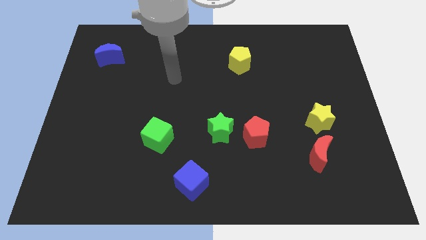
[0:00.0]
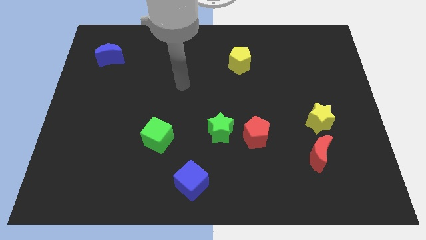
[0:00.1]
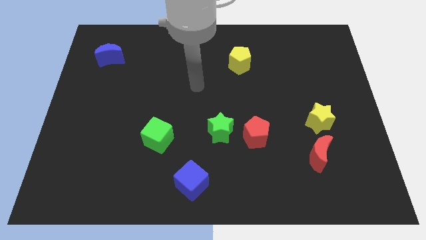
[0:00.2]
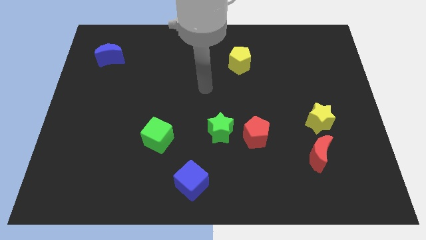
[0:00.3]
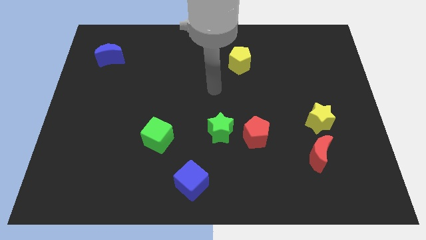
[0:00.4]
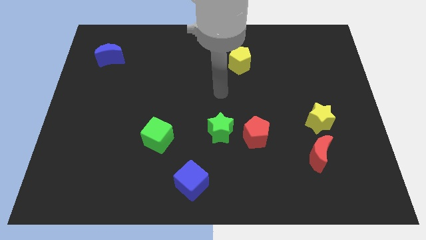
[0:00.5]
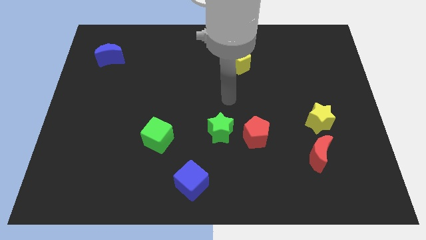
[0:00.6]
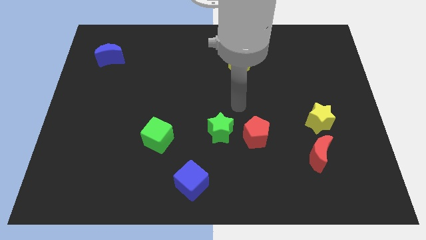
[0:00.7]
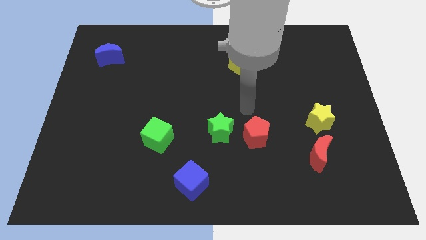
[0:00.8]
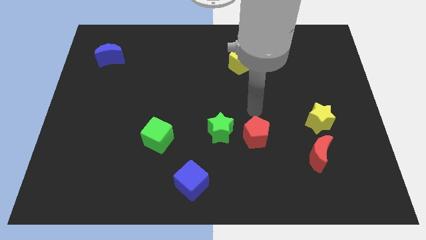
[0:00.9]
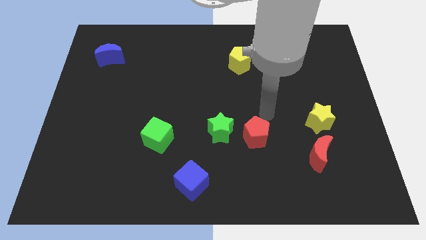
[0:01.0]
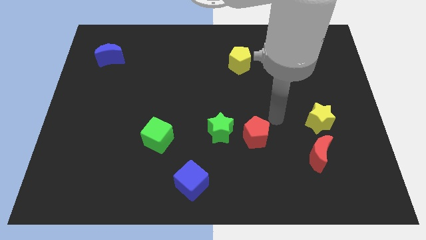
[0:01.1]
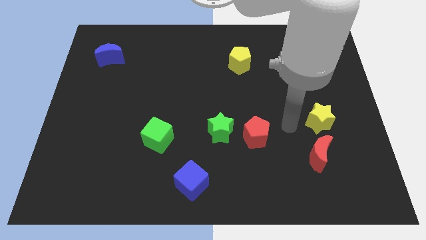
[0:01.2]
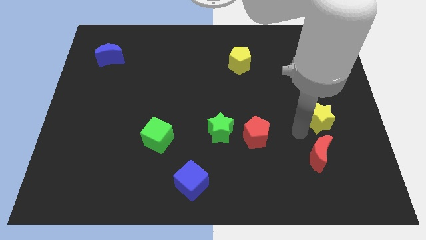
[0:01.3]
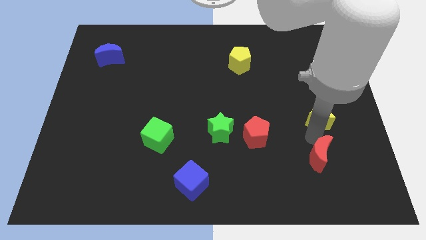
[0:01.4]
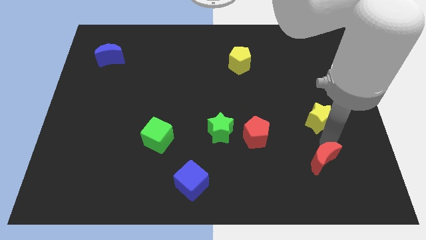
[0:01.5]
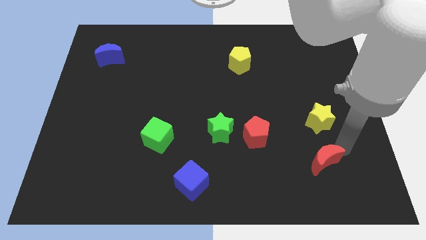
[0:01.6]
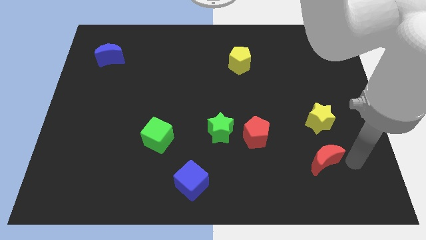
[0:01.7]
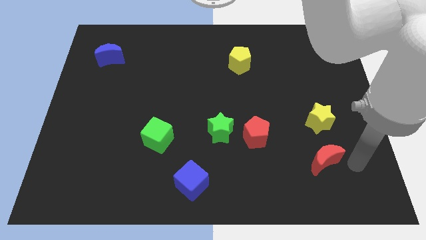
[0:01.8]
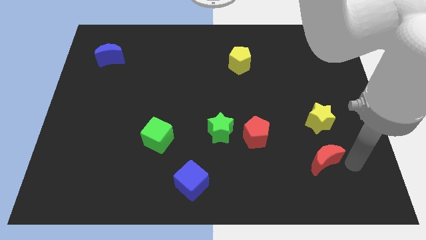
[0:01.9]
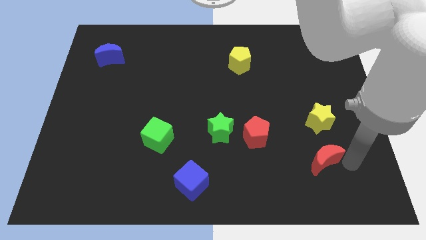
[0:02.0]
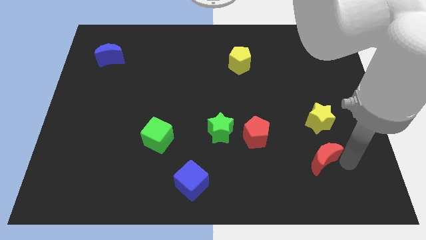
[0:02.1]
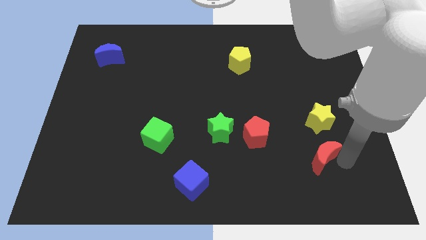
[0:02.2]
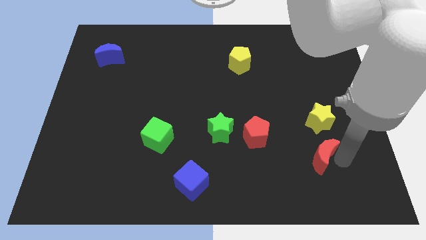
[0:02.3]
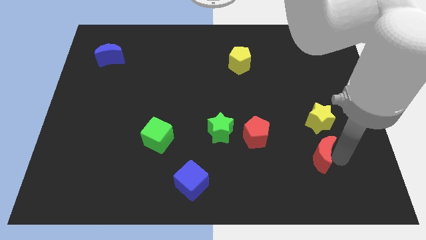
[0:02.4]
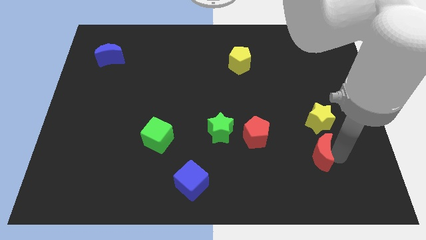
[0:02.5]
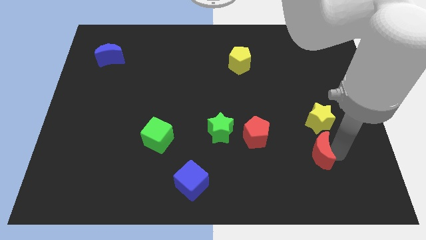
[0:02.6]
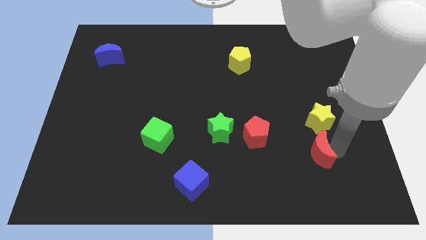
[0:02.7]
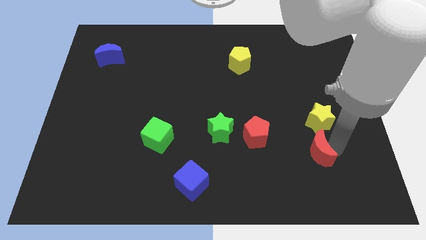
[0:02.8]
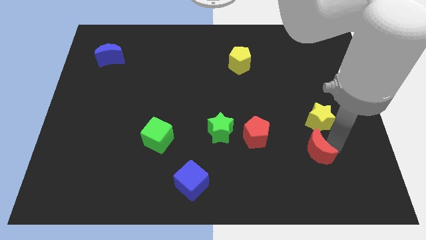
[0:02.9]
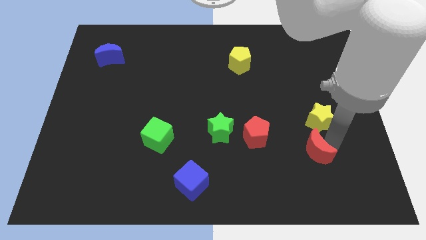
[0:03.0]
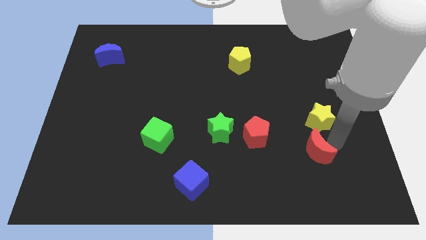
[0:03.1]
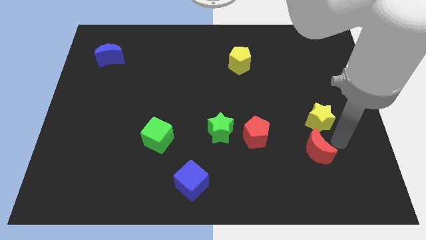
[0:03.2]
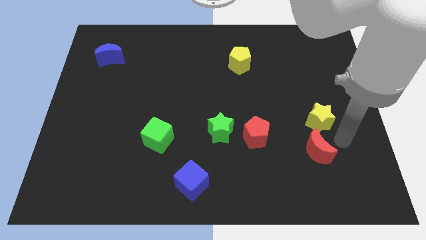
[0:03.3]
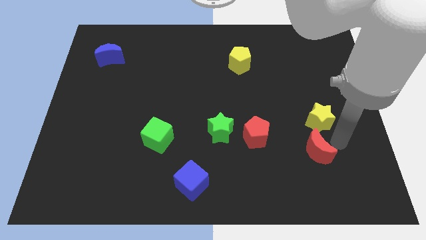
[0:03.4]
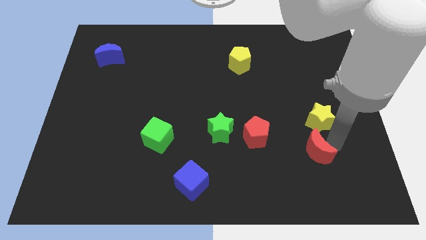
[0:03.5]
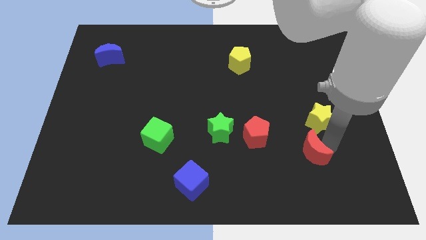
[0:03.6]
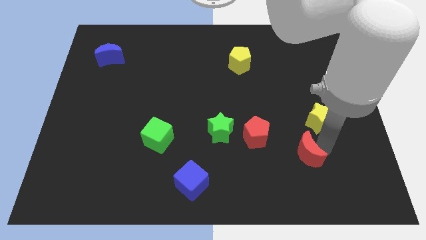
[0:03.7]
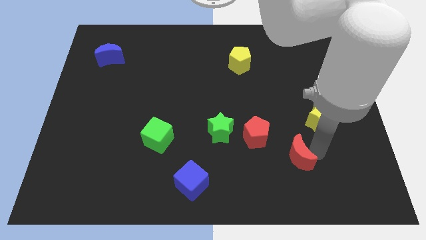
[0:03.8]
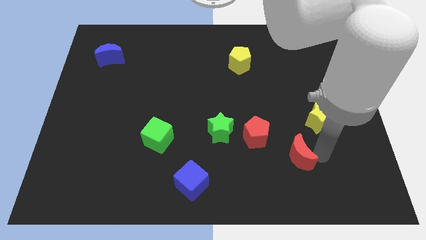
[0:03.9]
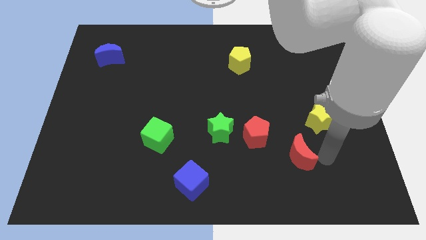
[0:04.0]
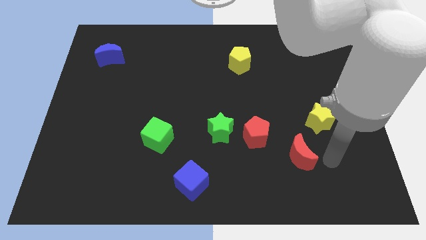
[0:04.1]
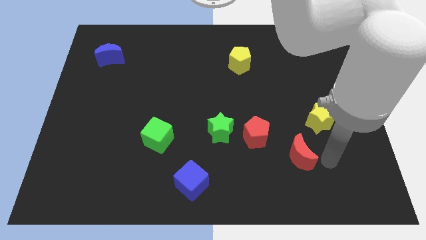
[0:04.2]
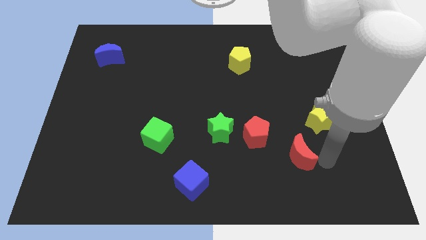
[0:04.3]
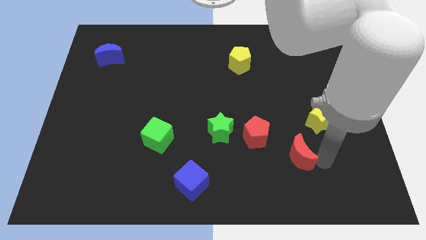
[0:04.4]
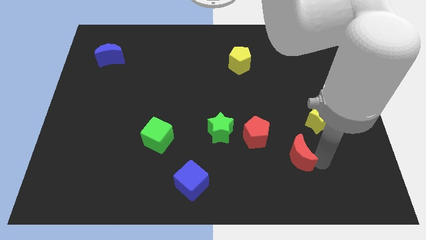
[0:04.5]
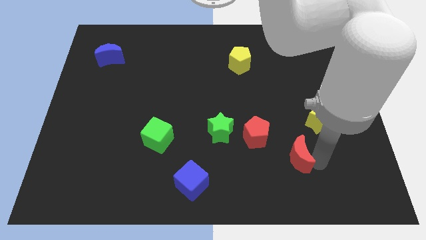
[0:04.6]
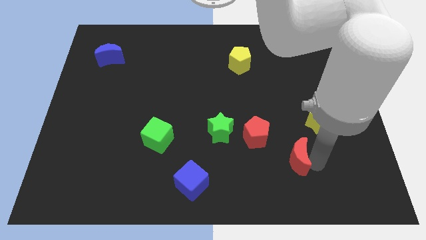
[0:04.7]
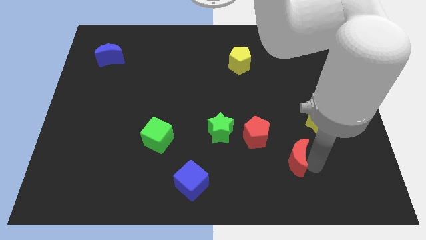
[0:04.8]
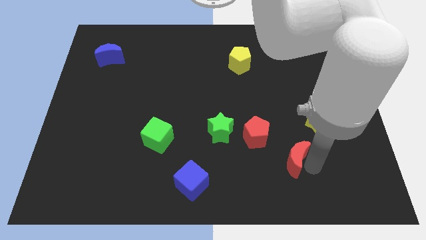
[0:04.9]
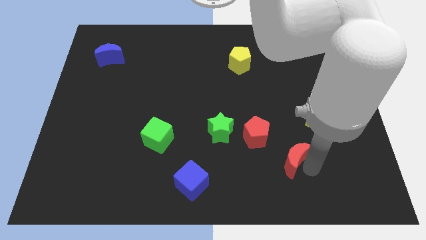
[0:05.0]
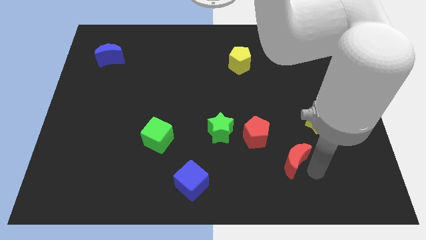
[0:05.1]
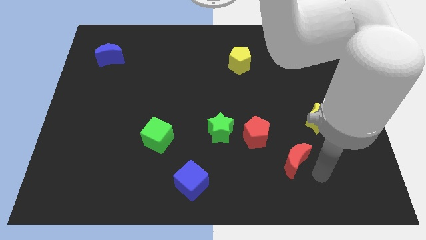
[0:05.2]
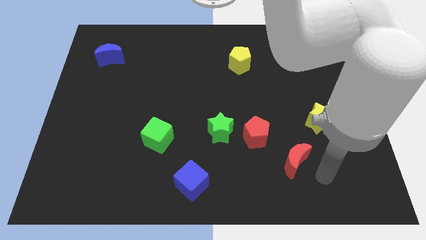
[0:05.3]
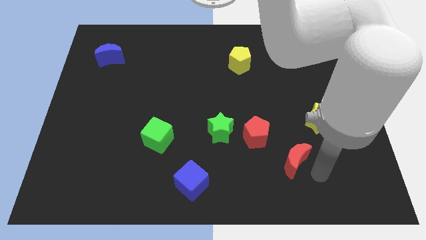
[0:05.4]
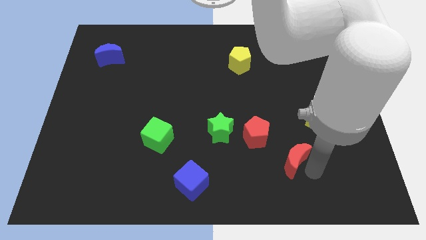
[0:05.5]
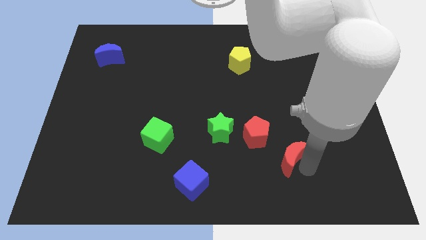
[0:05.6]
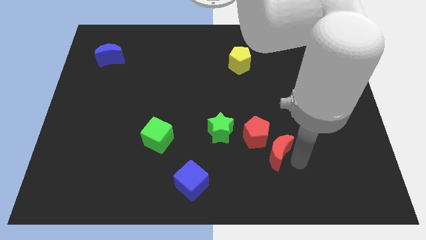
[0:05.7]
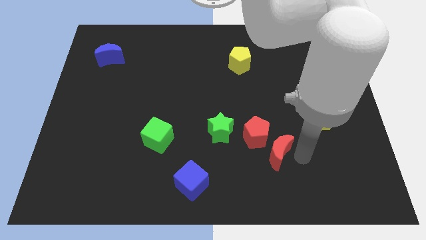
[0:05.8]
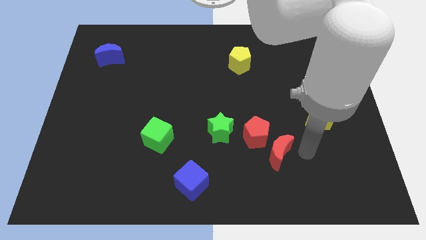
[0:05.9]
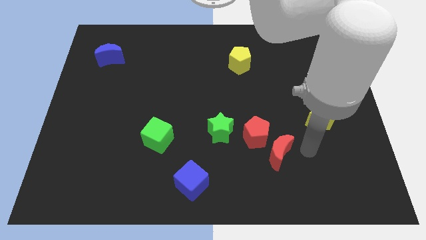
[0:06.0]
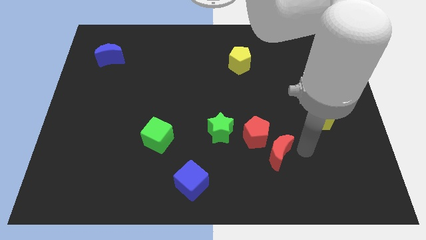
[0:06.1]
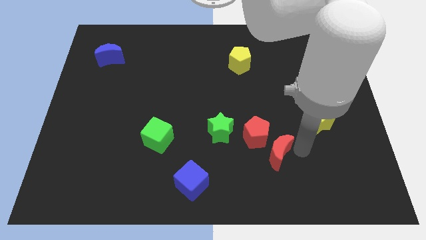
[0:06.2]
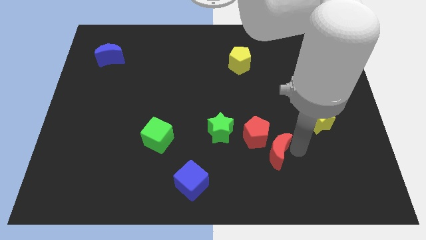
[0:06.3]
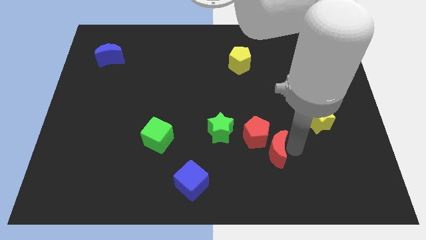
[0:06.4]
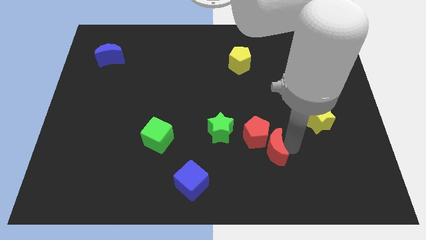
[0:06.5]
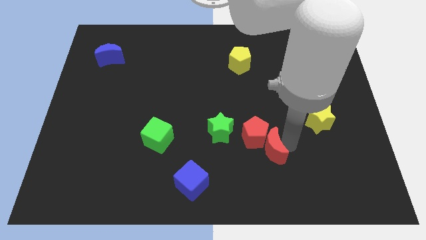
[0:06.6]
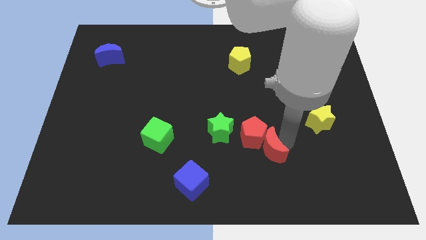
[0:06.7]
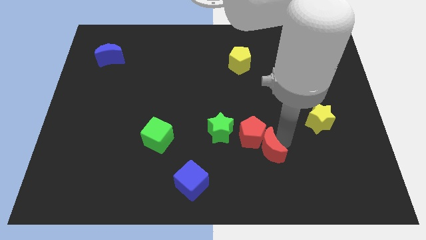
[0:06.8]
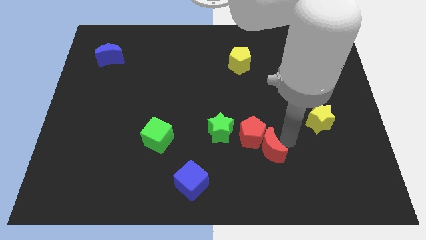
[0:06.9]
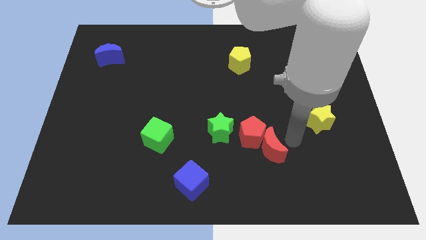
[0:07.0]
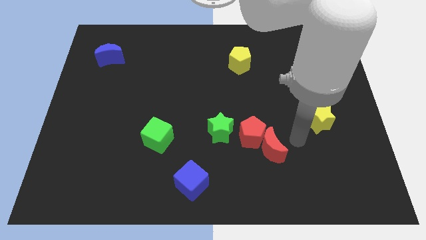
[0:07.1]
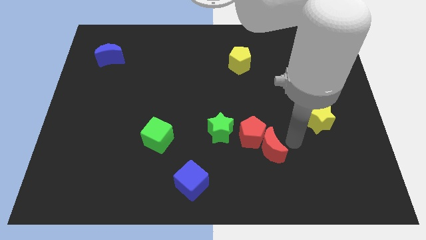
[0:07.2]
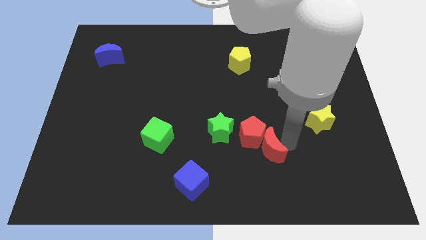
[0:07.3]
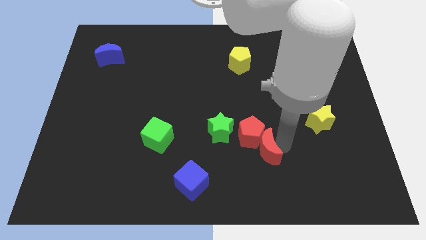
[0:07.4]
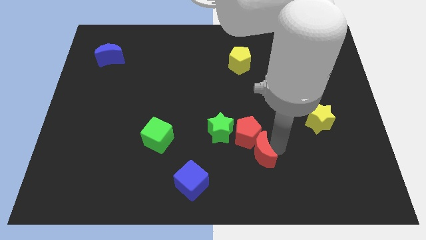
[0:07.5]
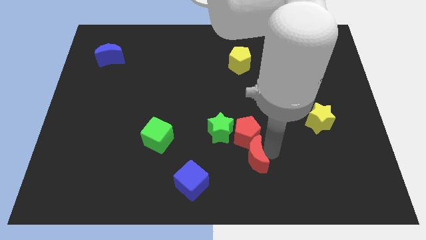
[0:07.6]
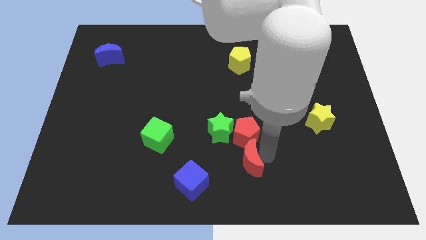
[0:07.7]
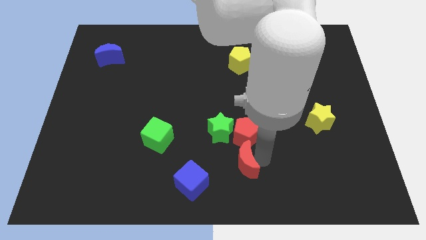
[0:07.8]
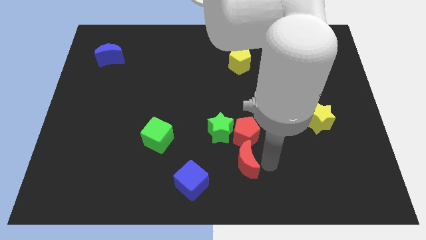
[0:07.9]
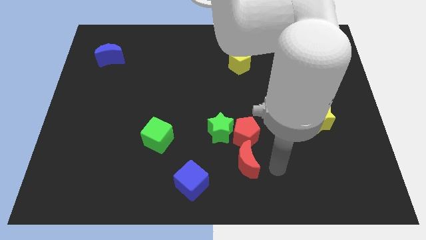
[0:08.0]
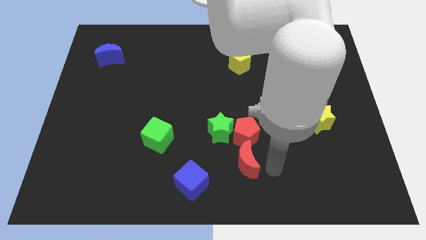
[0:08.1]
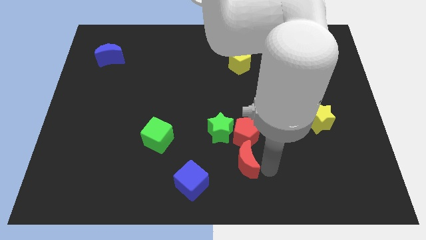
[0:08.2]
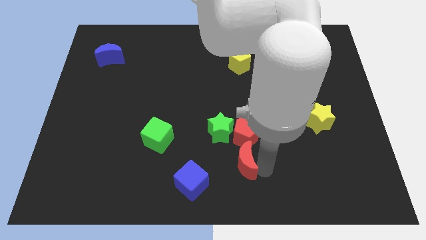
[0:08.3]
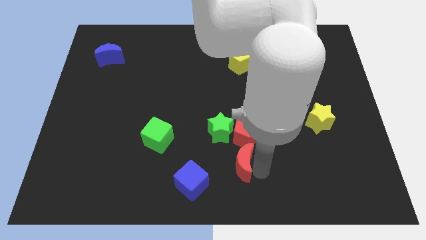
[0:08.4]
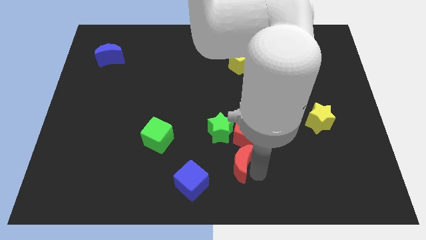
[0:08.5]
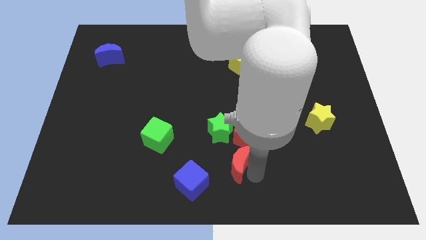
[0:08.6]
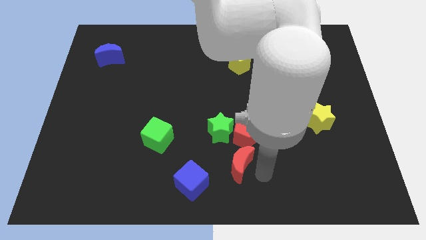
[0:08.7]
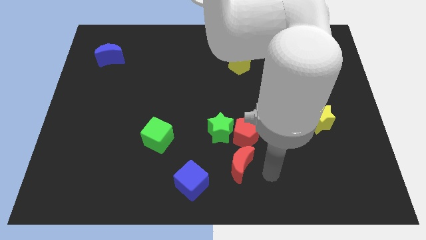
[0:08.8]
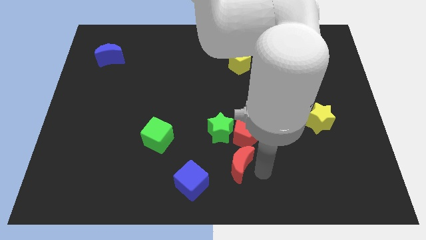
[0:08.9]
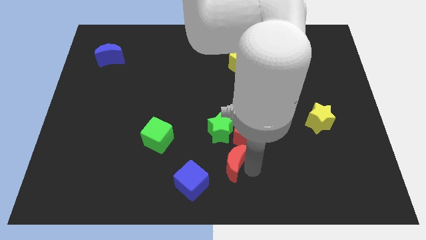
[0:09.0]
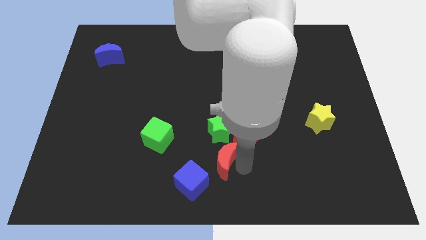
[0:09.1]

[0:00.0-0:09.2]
push the red moon left
